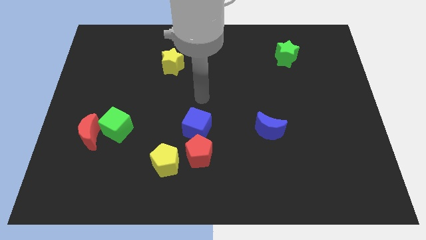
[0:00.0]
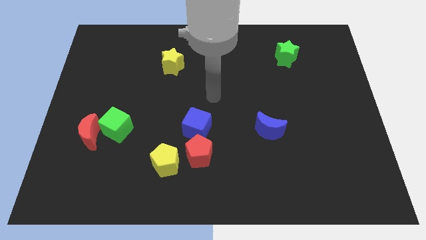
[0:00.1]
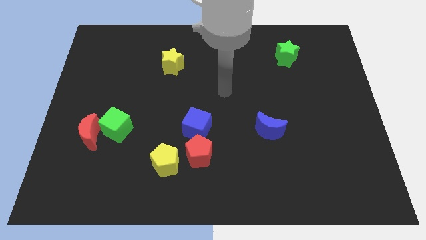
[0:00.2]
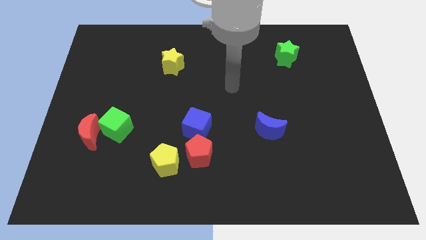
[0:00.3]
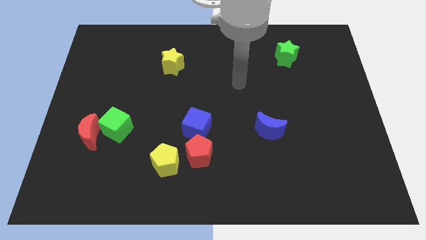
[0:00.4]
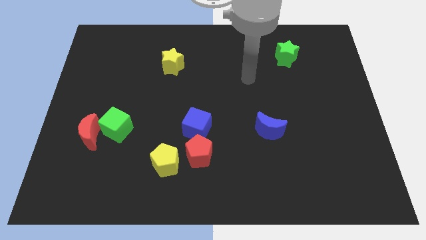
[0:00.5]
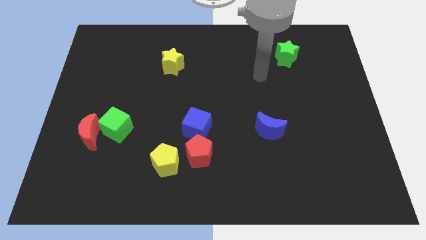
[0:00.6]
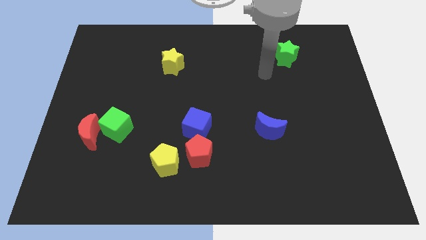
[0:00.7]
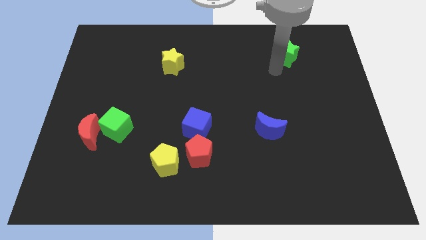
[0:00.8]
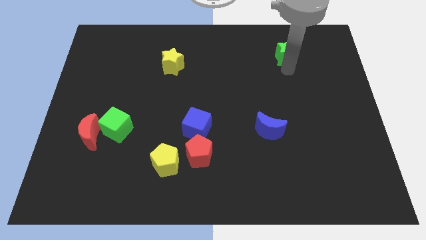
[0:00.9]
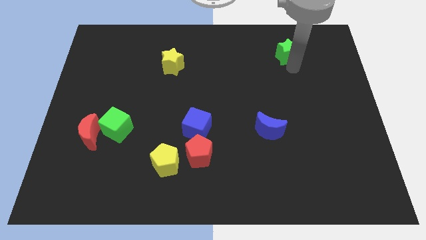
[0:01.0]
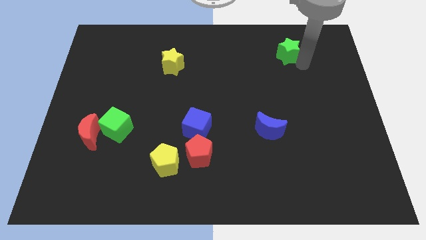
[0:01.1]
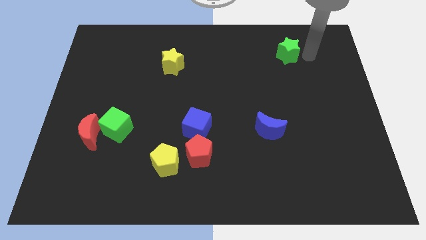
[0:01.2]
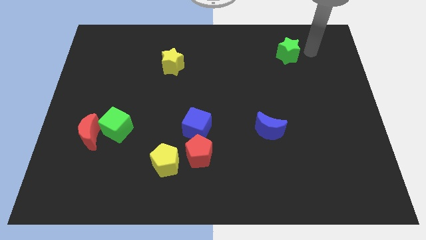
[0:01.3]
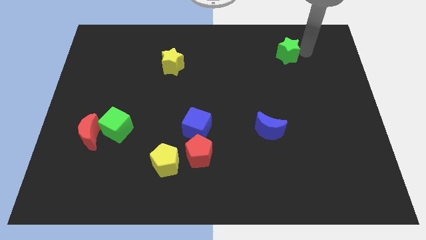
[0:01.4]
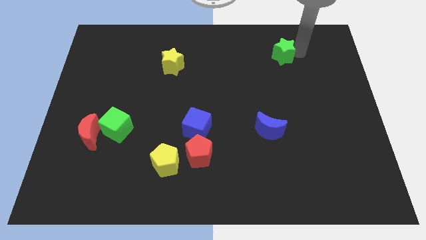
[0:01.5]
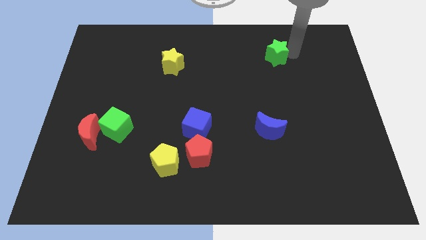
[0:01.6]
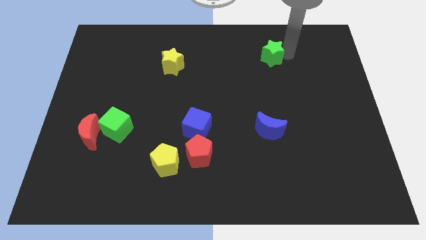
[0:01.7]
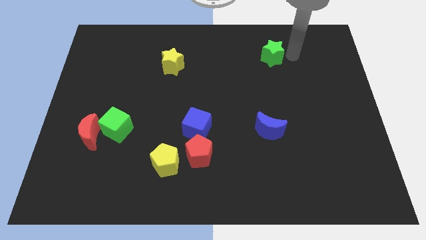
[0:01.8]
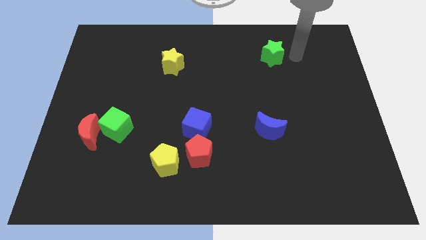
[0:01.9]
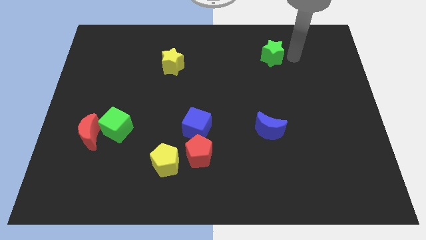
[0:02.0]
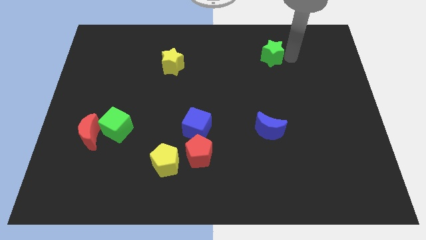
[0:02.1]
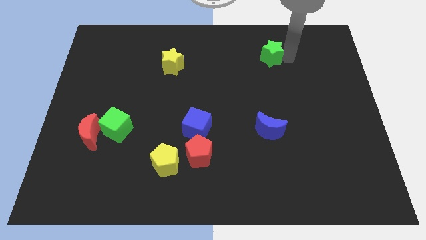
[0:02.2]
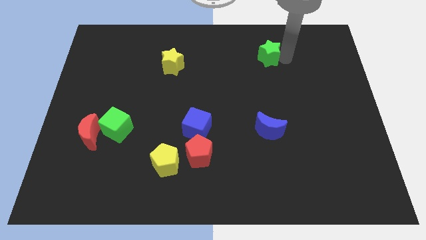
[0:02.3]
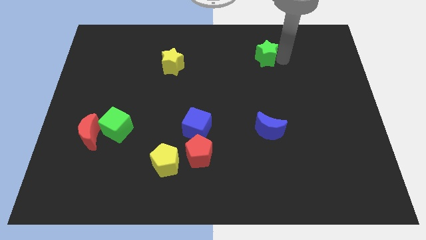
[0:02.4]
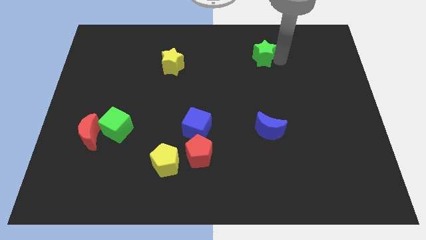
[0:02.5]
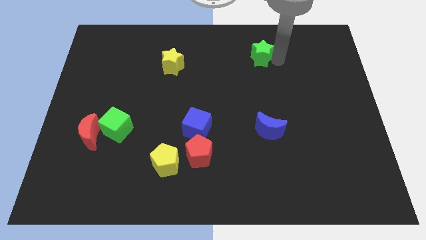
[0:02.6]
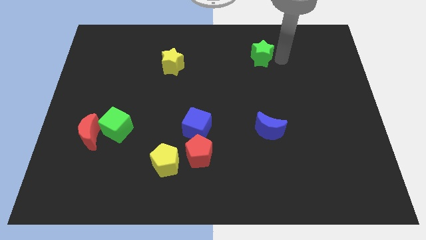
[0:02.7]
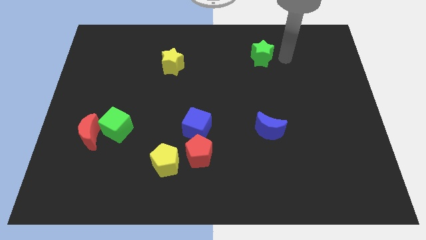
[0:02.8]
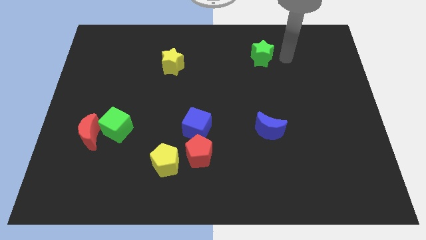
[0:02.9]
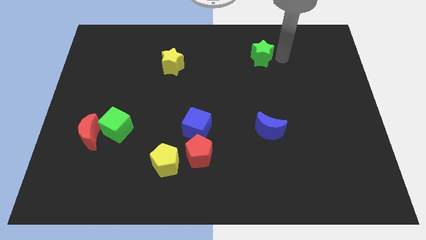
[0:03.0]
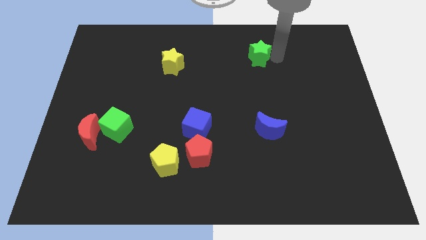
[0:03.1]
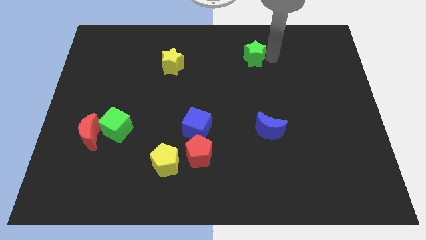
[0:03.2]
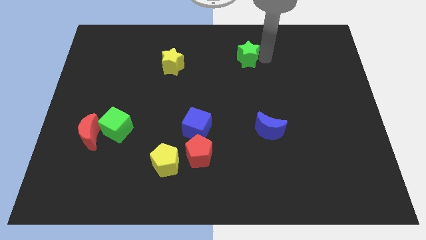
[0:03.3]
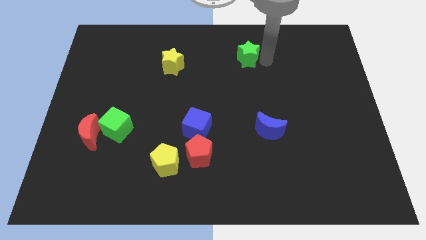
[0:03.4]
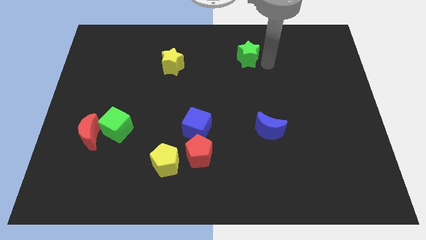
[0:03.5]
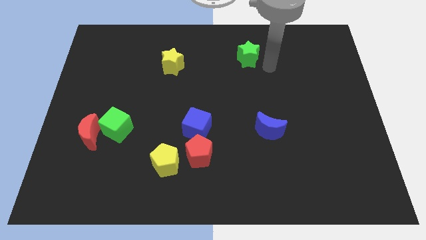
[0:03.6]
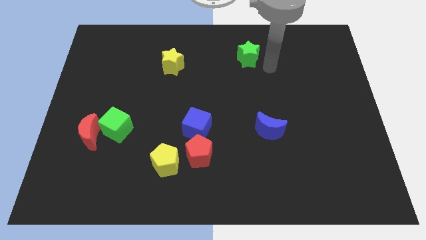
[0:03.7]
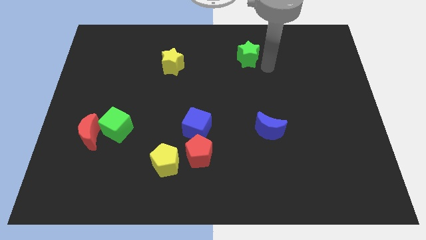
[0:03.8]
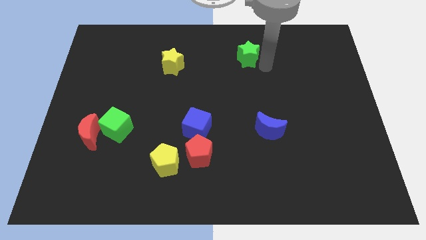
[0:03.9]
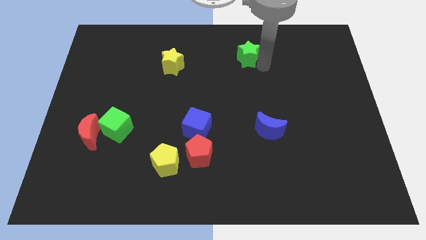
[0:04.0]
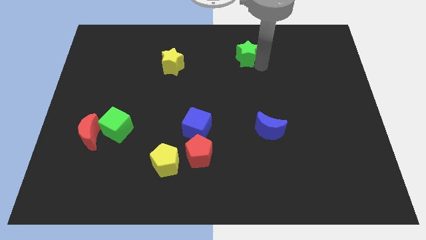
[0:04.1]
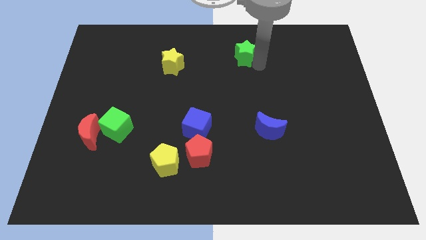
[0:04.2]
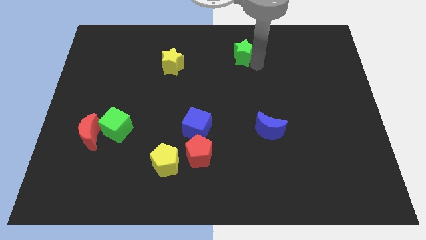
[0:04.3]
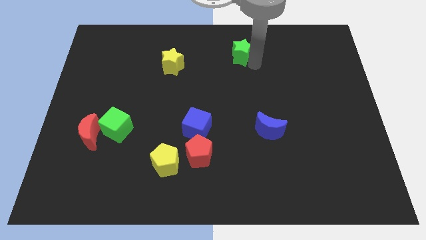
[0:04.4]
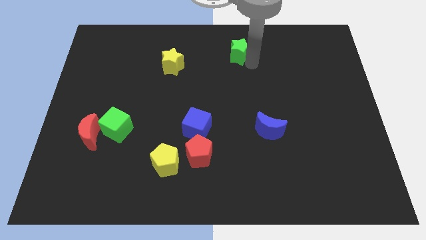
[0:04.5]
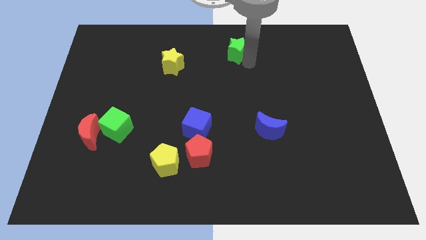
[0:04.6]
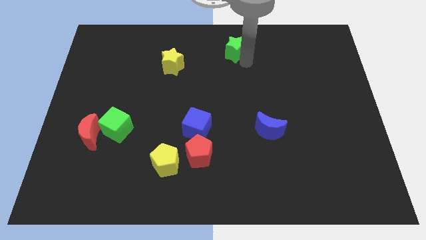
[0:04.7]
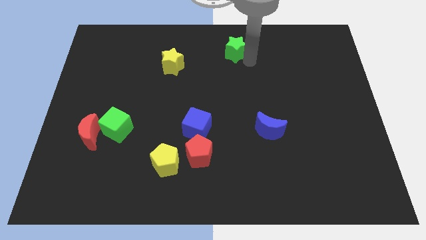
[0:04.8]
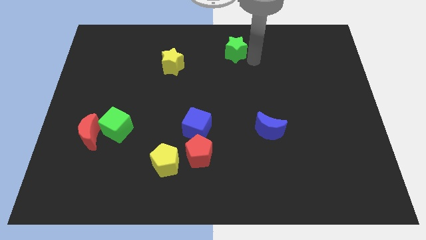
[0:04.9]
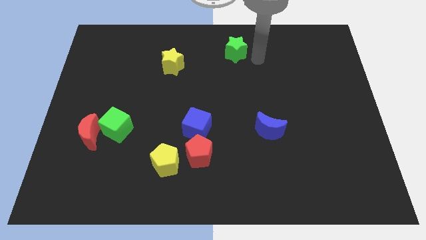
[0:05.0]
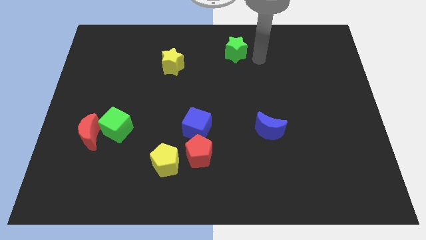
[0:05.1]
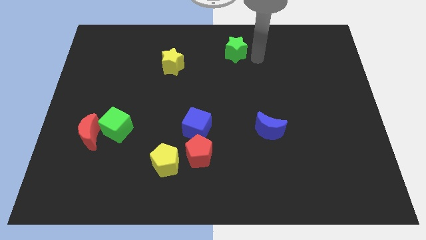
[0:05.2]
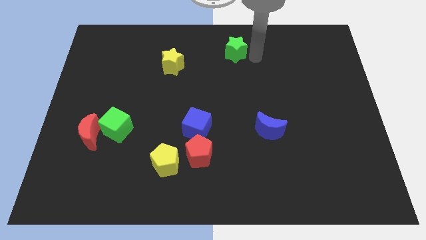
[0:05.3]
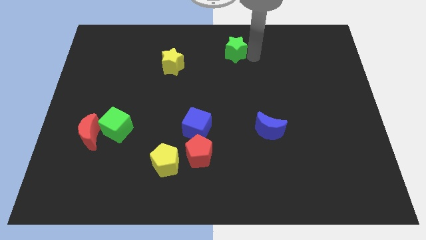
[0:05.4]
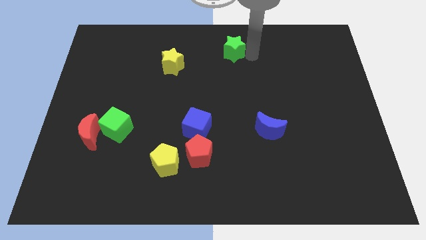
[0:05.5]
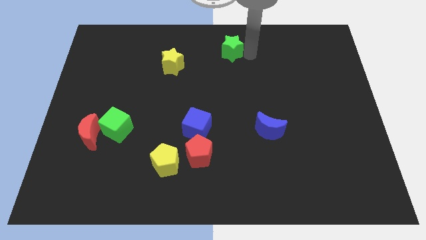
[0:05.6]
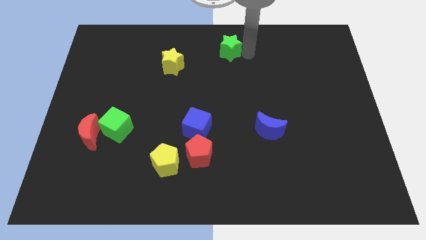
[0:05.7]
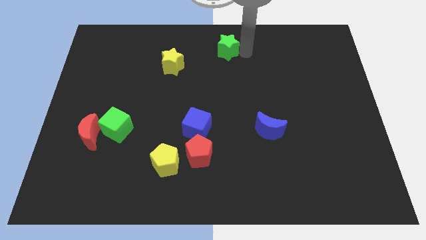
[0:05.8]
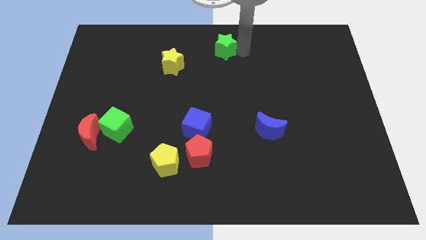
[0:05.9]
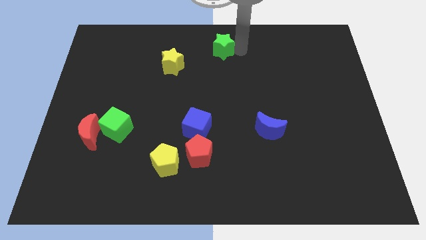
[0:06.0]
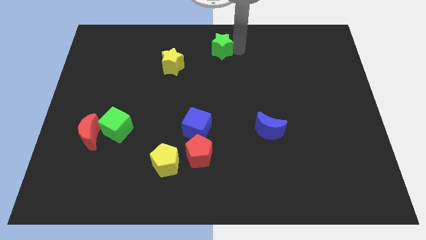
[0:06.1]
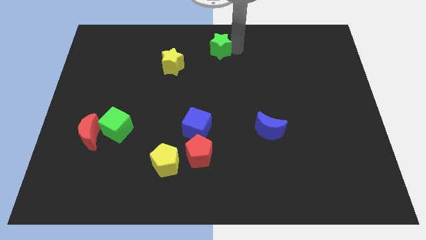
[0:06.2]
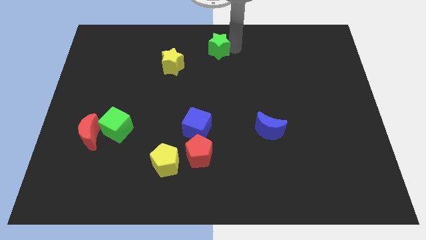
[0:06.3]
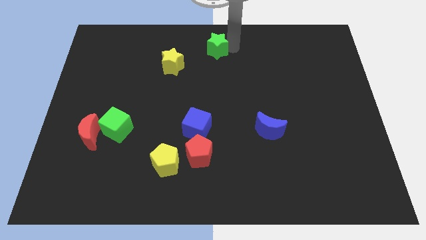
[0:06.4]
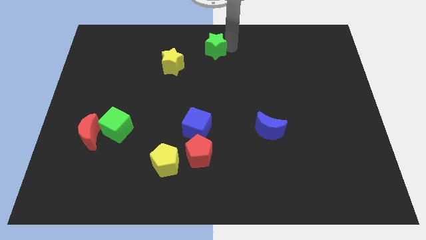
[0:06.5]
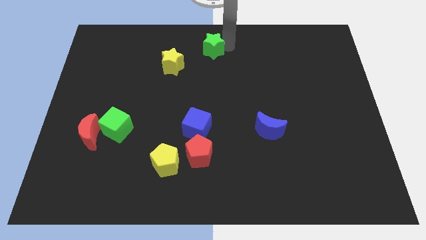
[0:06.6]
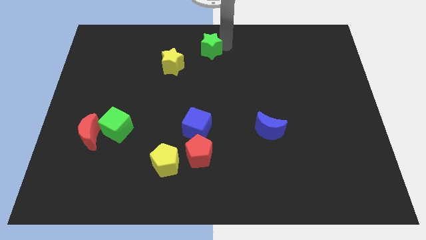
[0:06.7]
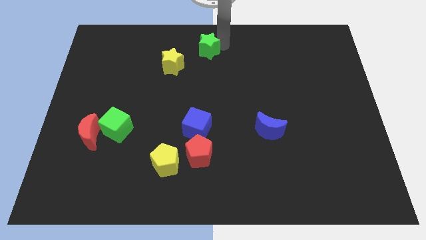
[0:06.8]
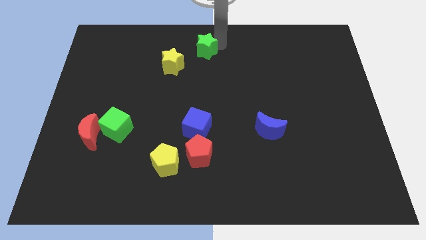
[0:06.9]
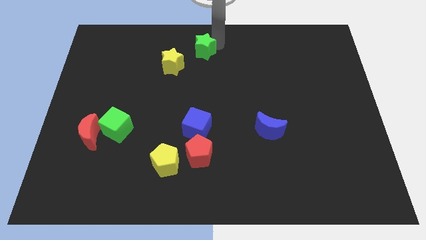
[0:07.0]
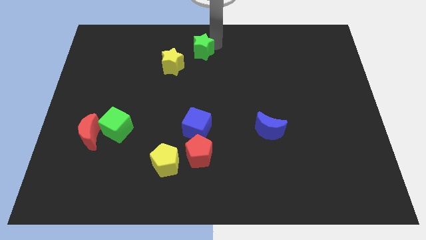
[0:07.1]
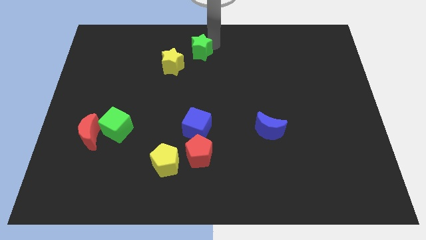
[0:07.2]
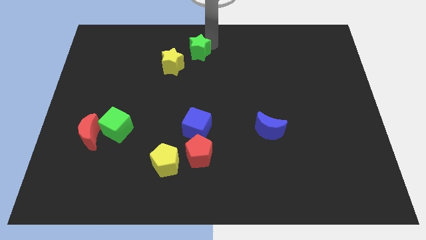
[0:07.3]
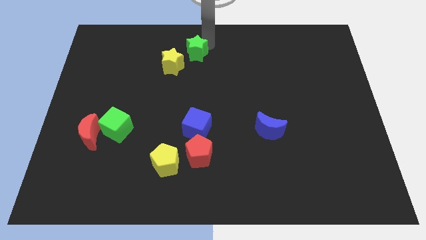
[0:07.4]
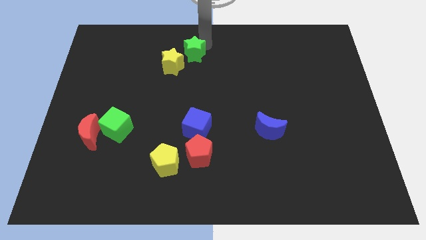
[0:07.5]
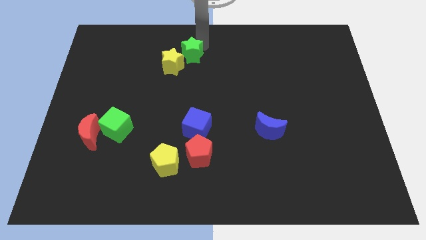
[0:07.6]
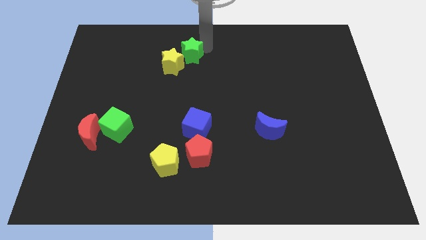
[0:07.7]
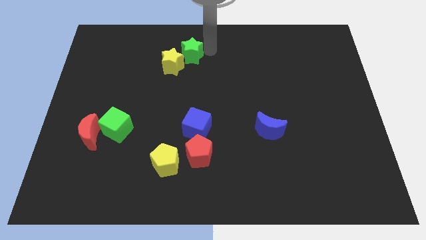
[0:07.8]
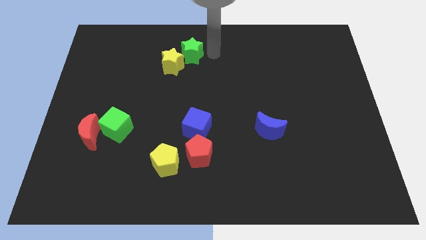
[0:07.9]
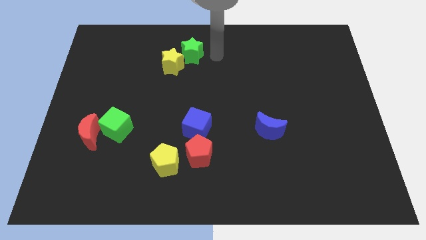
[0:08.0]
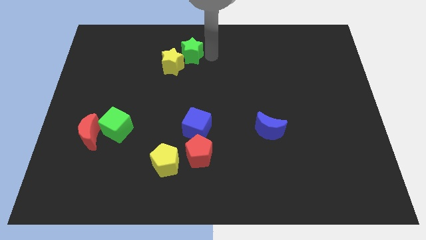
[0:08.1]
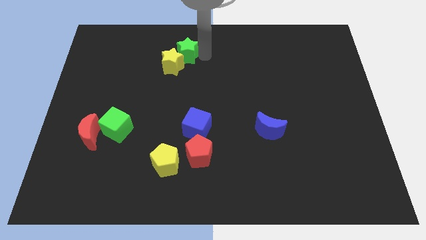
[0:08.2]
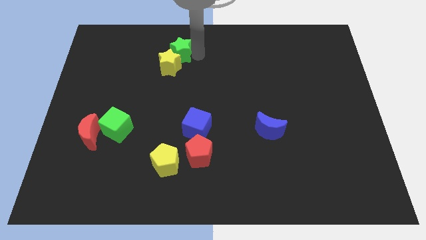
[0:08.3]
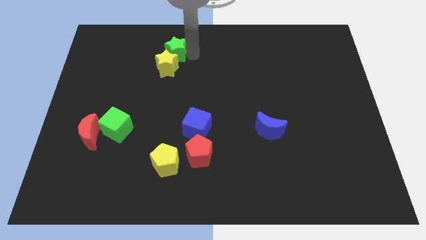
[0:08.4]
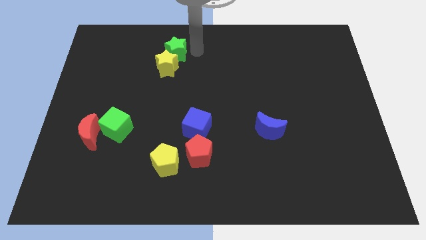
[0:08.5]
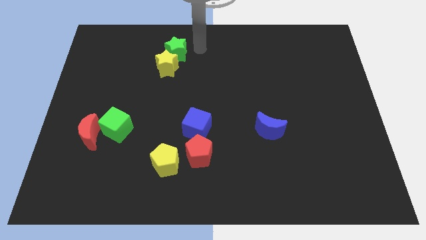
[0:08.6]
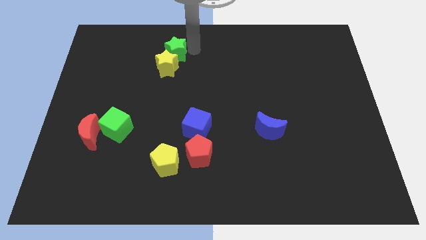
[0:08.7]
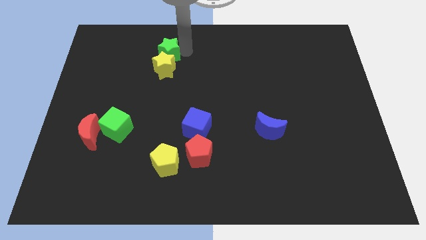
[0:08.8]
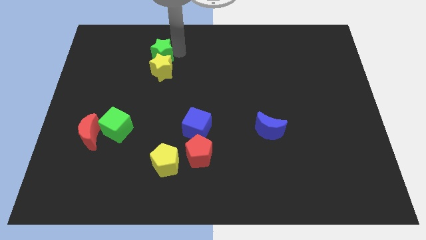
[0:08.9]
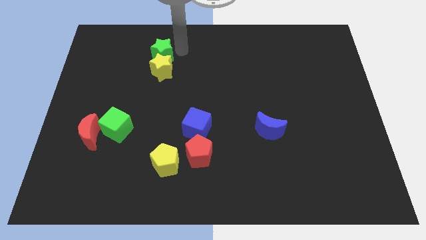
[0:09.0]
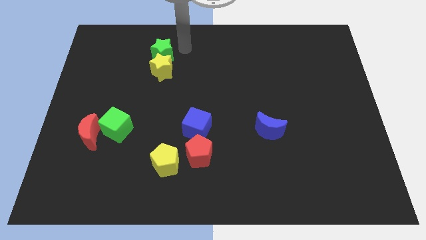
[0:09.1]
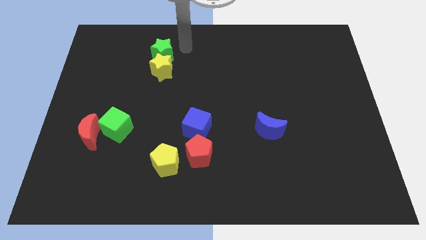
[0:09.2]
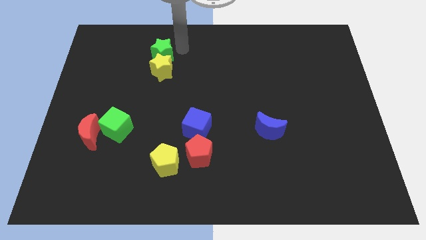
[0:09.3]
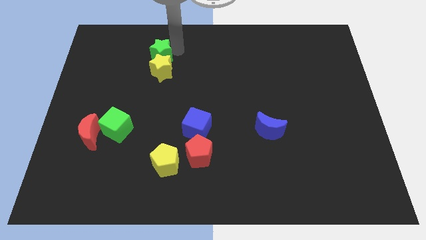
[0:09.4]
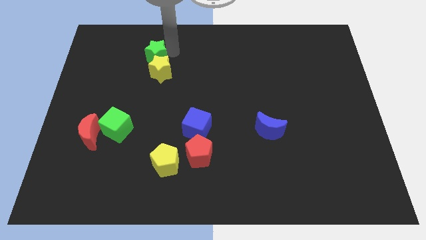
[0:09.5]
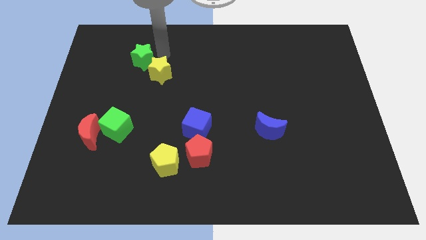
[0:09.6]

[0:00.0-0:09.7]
put the green star left of the yellow star
